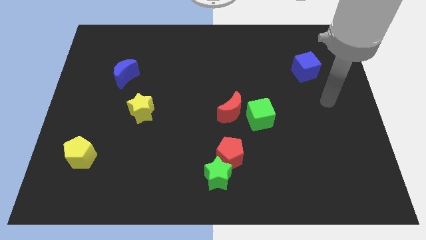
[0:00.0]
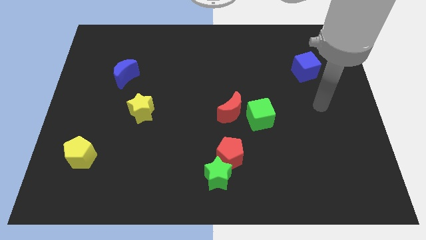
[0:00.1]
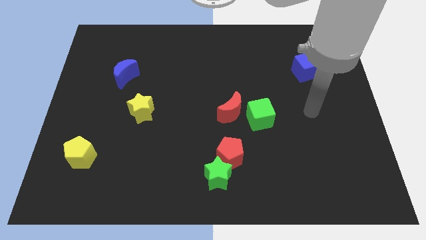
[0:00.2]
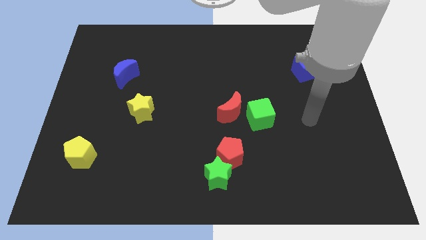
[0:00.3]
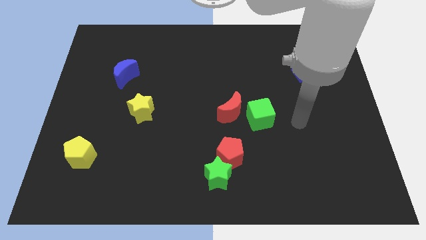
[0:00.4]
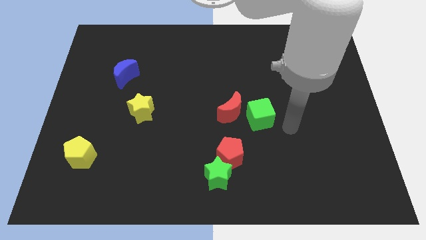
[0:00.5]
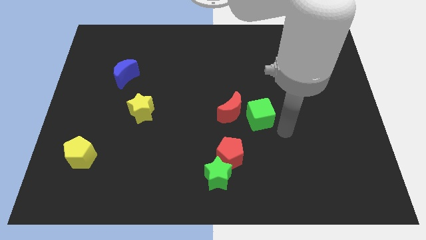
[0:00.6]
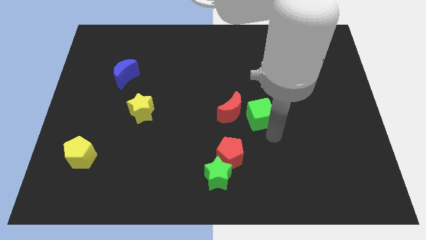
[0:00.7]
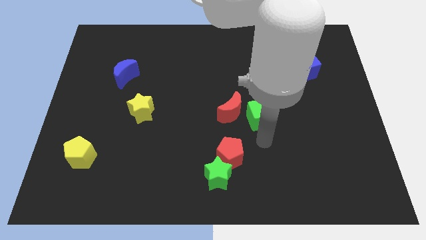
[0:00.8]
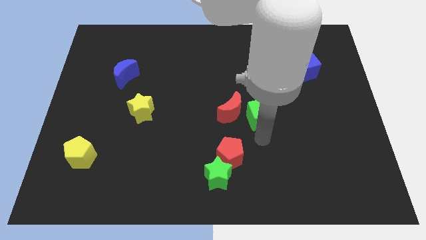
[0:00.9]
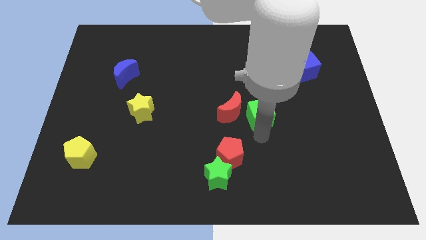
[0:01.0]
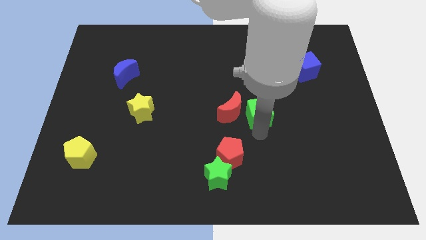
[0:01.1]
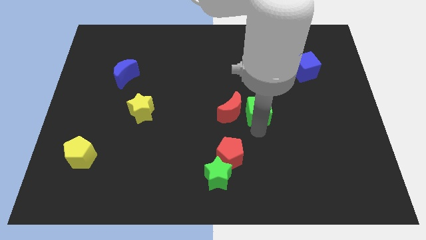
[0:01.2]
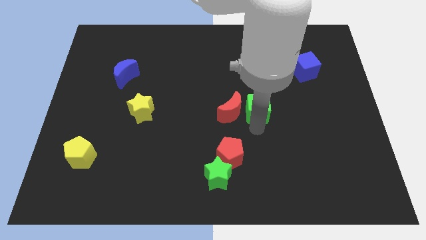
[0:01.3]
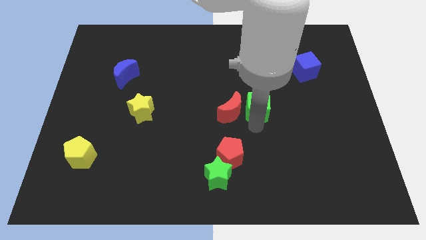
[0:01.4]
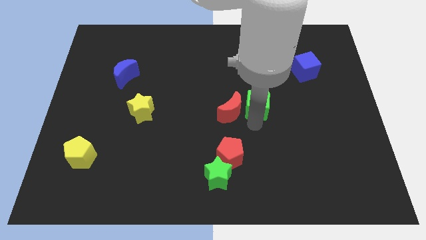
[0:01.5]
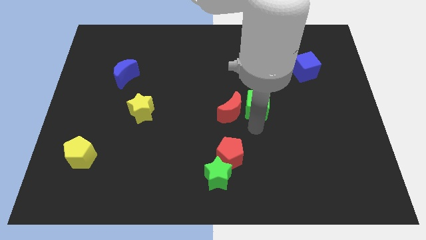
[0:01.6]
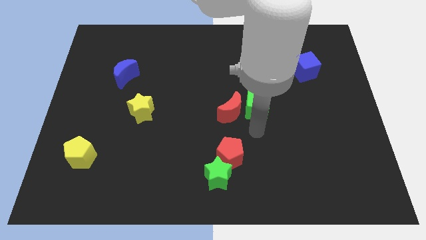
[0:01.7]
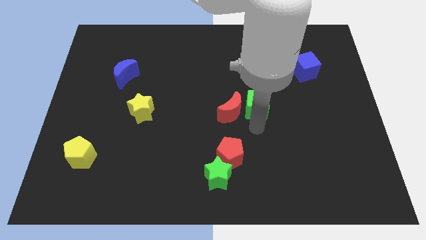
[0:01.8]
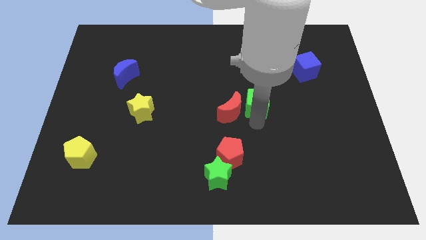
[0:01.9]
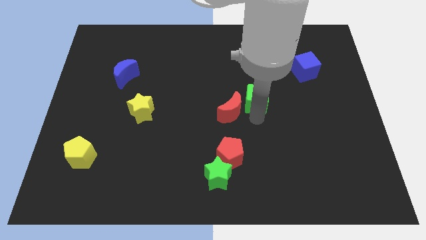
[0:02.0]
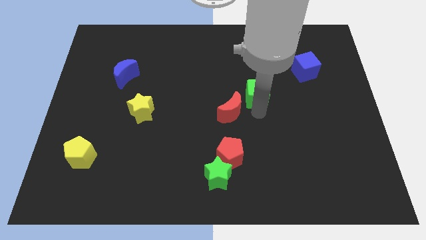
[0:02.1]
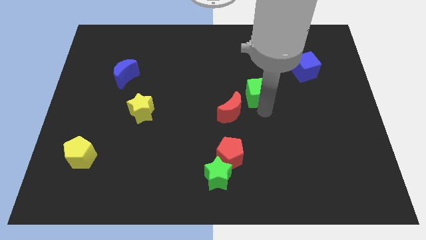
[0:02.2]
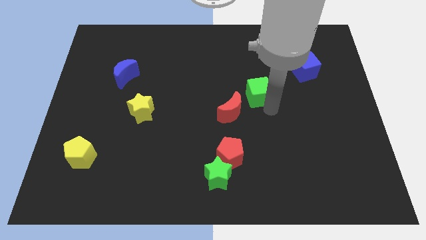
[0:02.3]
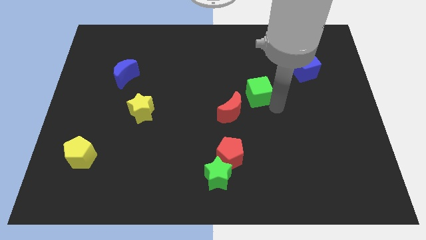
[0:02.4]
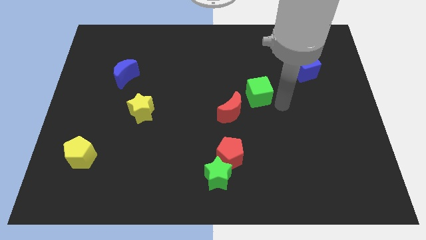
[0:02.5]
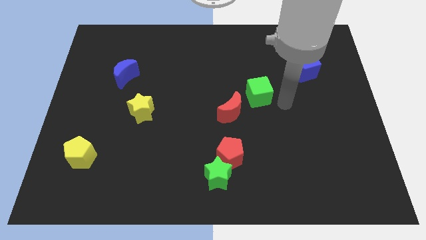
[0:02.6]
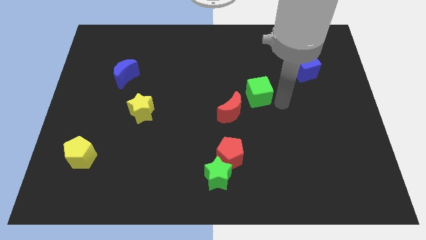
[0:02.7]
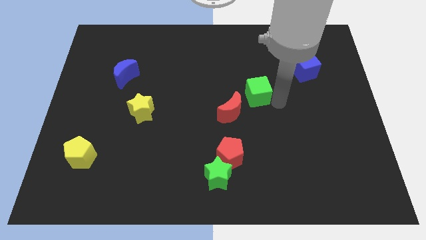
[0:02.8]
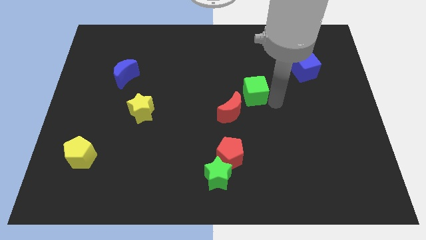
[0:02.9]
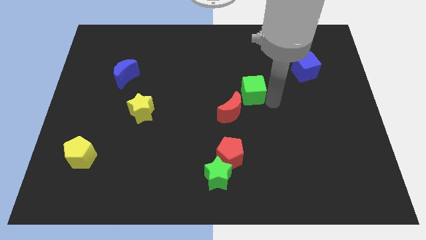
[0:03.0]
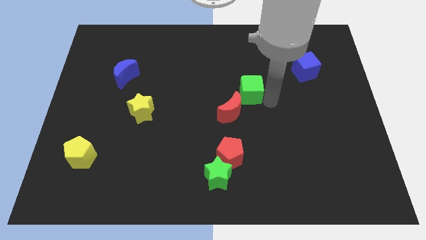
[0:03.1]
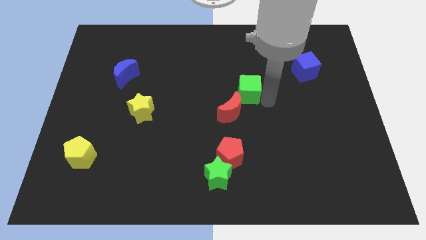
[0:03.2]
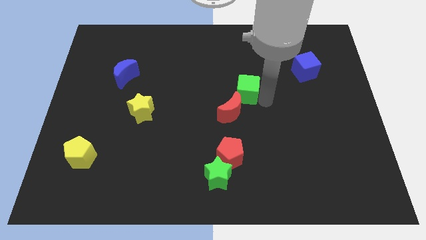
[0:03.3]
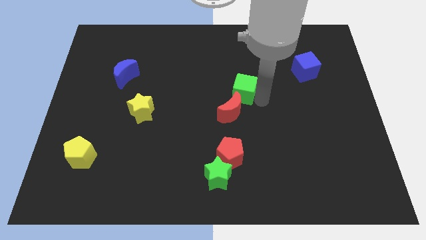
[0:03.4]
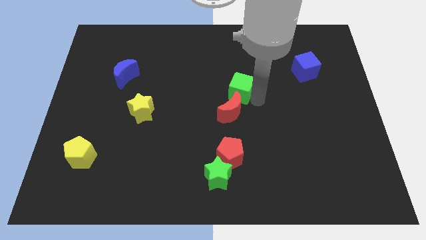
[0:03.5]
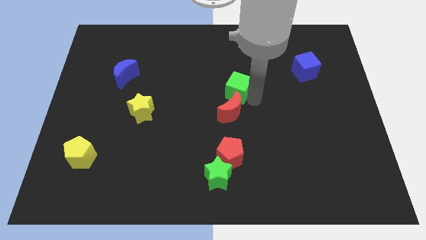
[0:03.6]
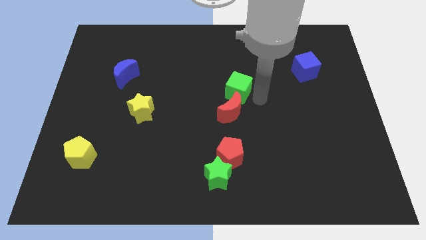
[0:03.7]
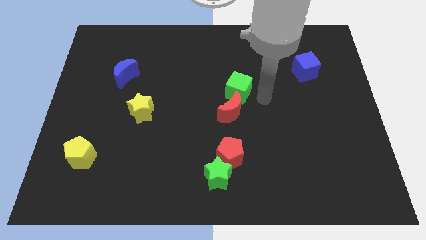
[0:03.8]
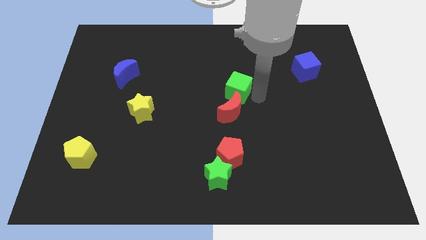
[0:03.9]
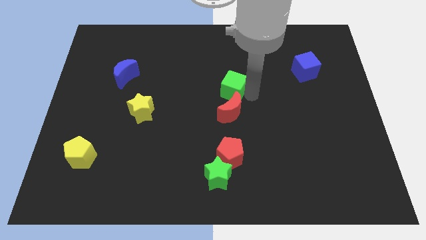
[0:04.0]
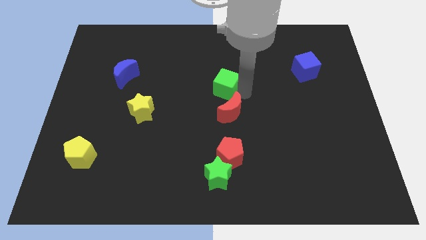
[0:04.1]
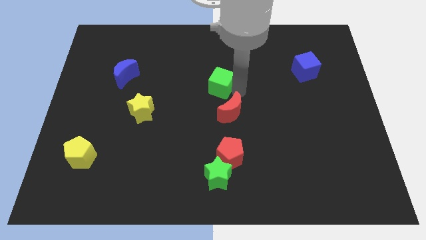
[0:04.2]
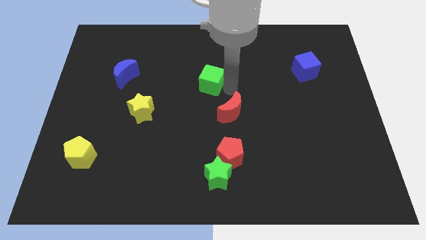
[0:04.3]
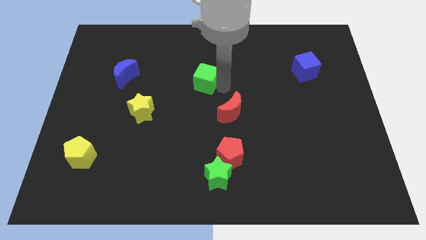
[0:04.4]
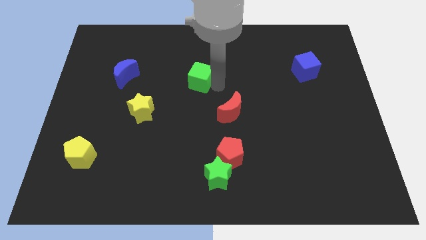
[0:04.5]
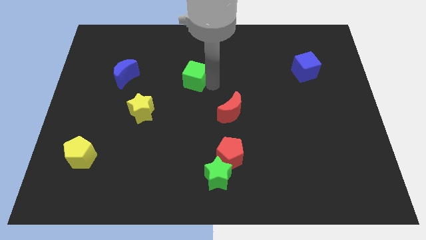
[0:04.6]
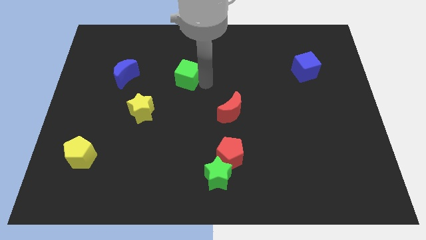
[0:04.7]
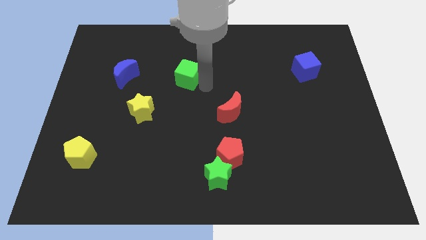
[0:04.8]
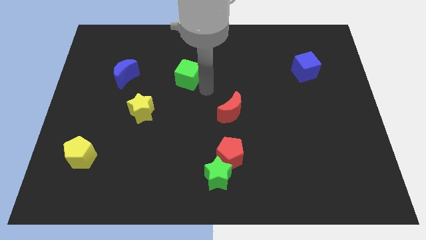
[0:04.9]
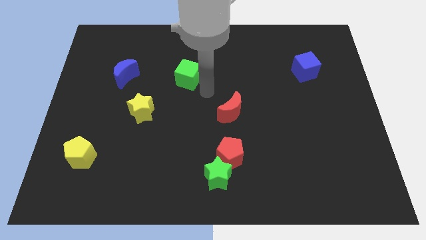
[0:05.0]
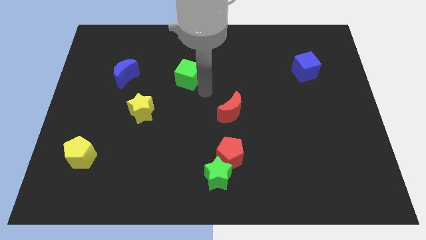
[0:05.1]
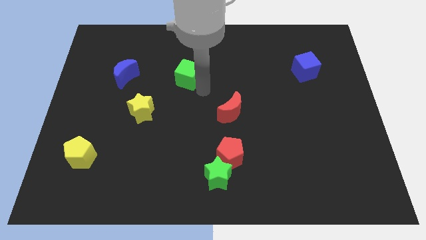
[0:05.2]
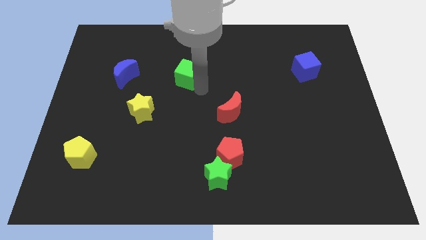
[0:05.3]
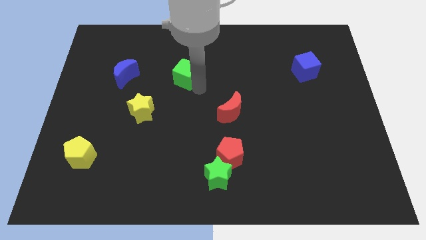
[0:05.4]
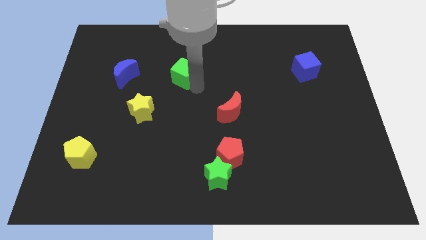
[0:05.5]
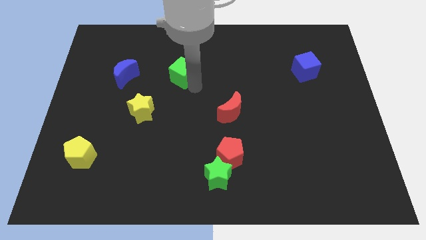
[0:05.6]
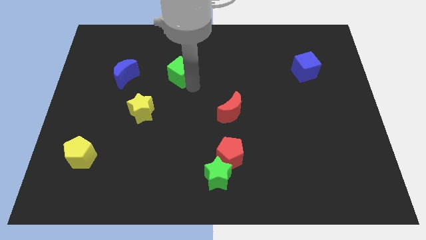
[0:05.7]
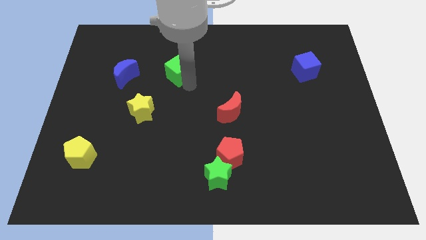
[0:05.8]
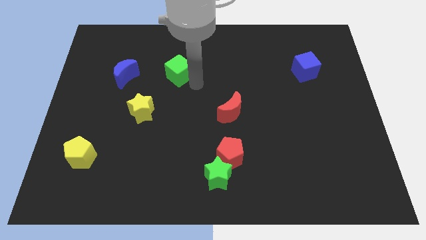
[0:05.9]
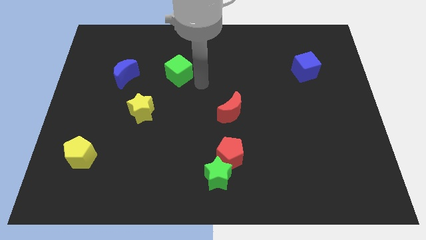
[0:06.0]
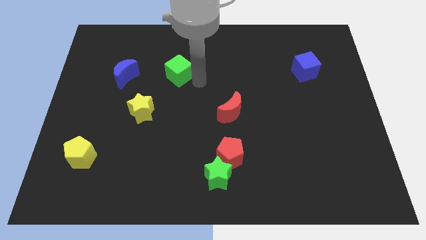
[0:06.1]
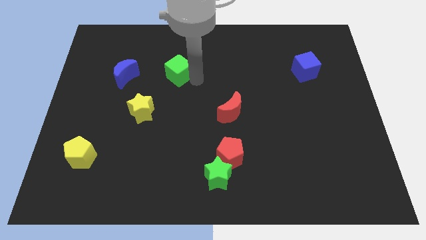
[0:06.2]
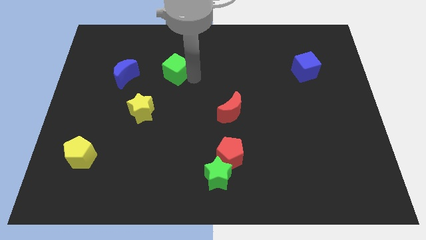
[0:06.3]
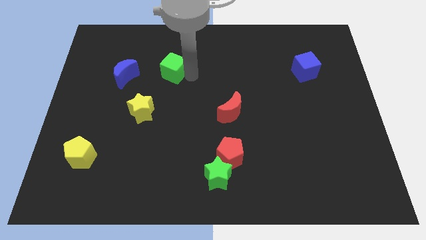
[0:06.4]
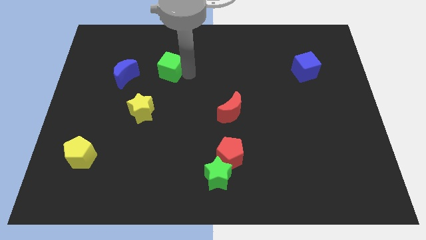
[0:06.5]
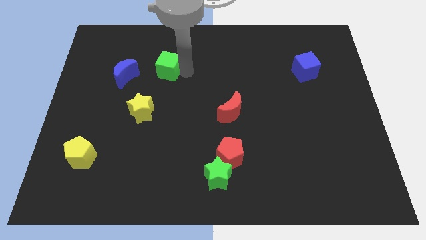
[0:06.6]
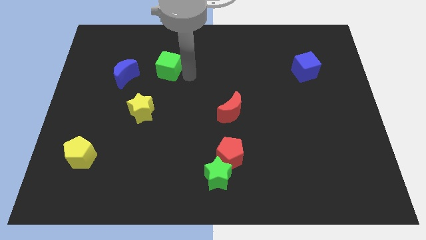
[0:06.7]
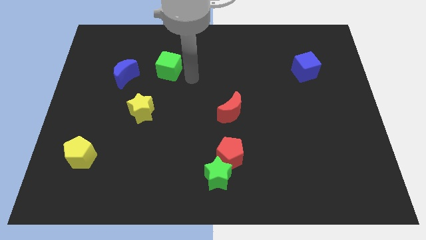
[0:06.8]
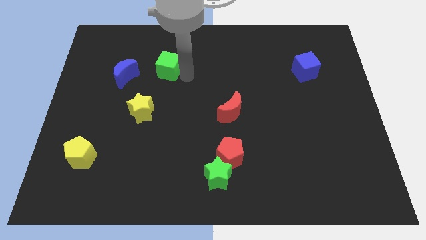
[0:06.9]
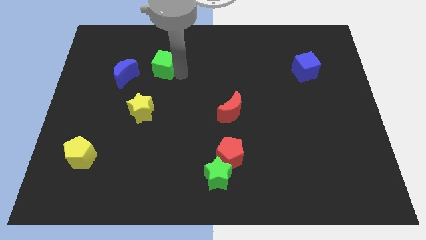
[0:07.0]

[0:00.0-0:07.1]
push the green cube to the top right of the blue moon
